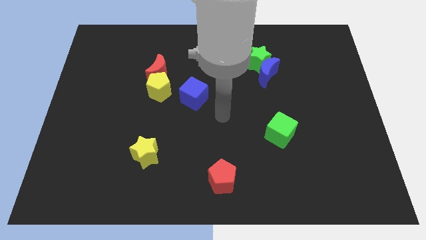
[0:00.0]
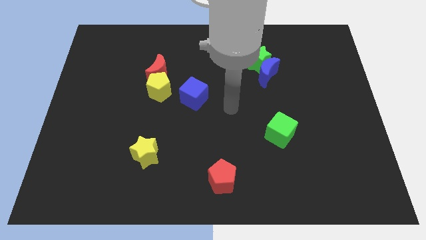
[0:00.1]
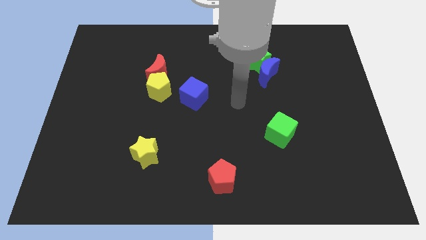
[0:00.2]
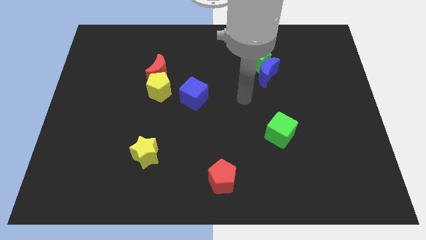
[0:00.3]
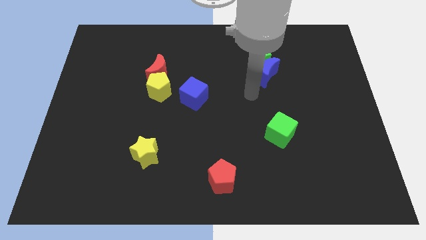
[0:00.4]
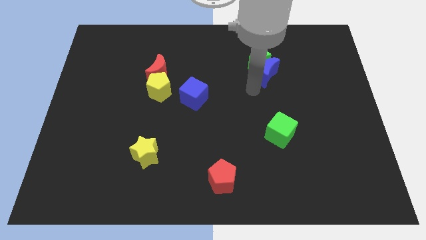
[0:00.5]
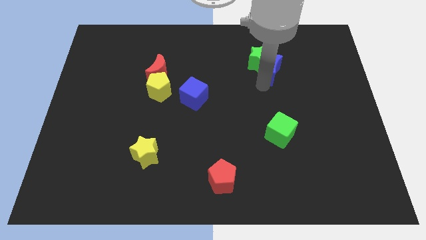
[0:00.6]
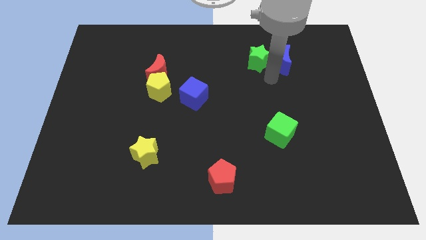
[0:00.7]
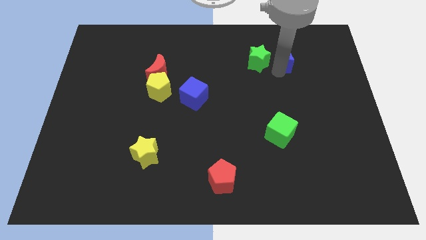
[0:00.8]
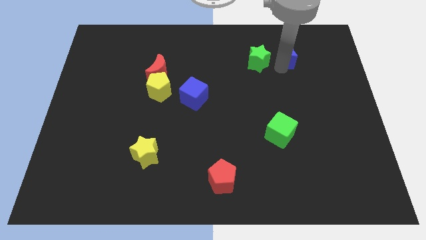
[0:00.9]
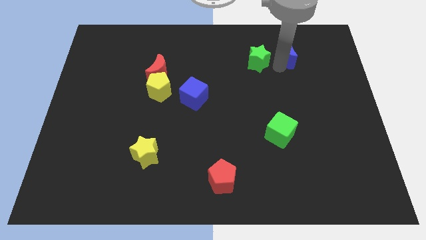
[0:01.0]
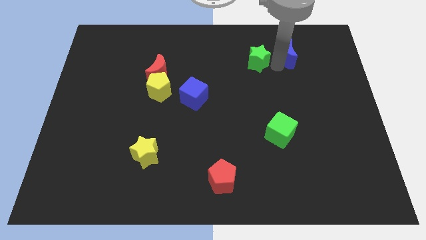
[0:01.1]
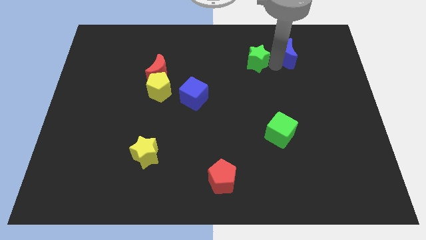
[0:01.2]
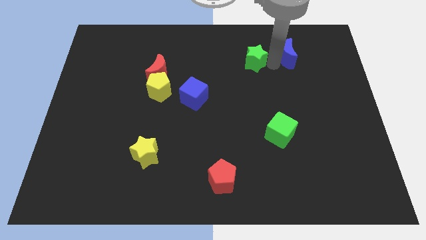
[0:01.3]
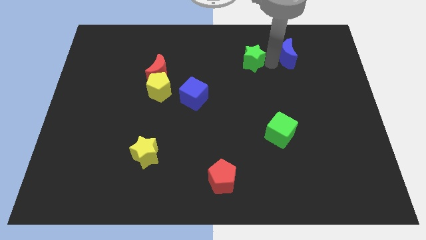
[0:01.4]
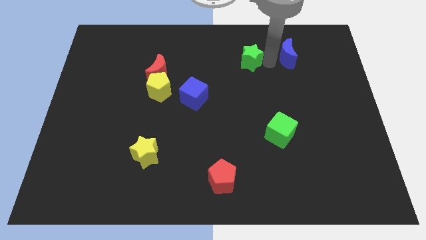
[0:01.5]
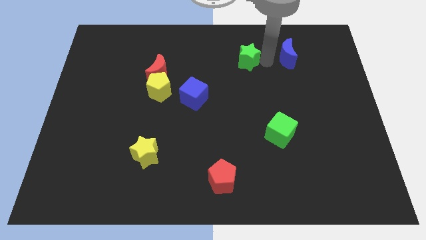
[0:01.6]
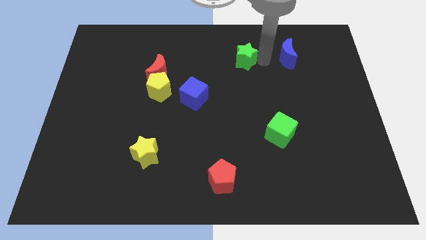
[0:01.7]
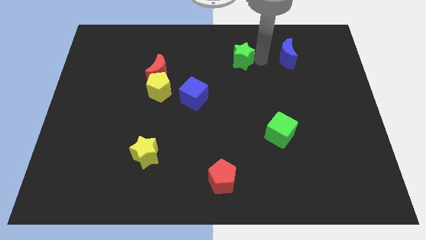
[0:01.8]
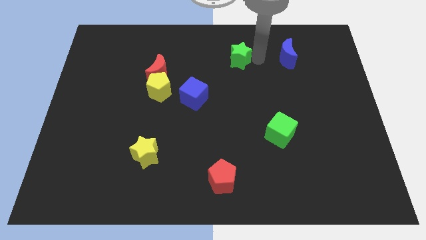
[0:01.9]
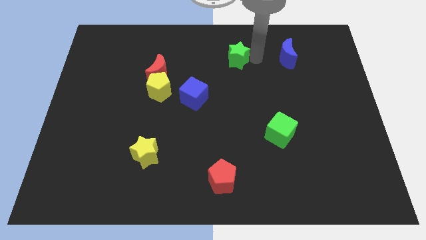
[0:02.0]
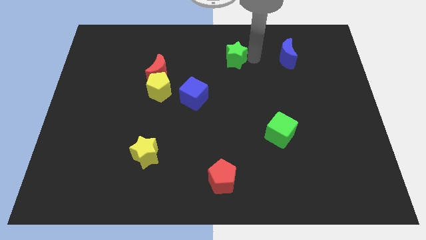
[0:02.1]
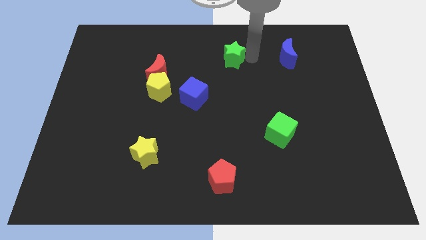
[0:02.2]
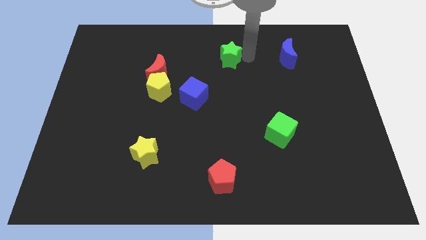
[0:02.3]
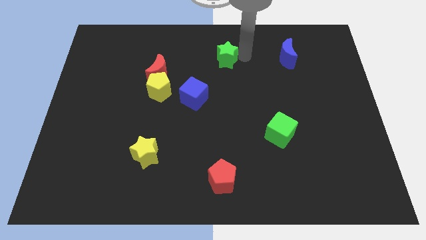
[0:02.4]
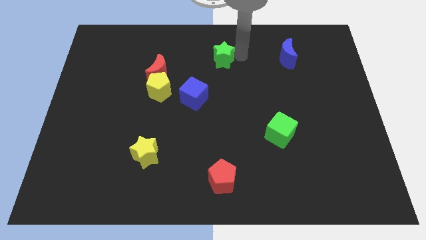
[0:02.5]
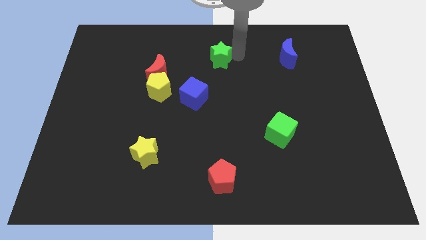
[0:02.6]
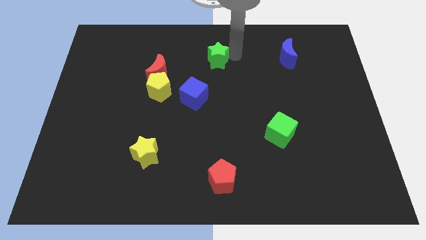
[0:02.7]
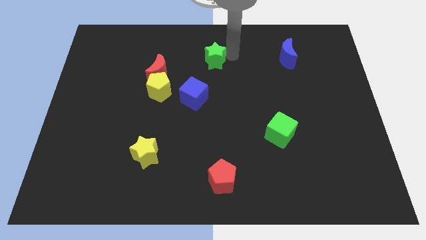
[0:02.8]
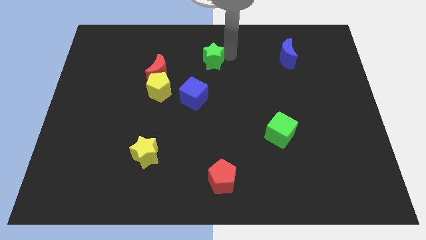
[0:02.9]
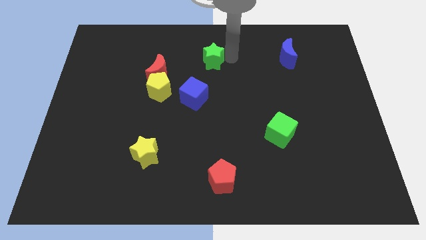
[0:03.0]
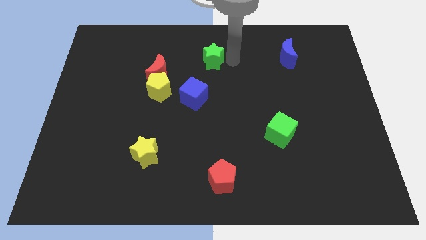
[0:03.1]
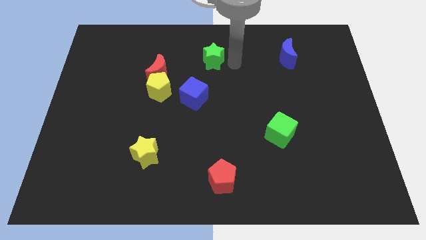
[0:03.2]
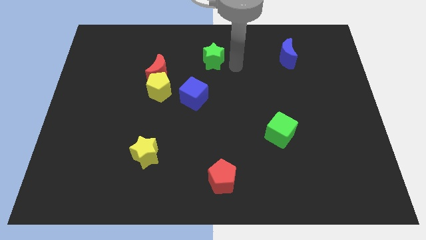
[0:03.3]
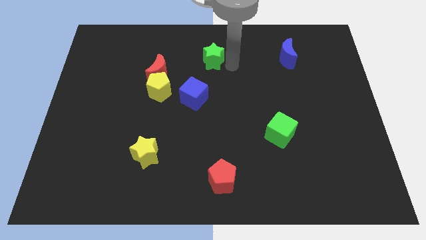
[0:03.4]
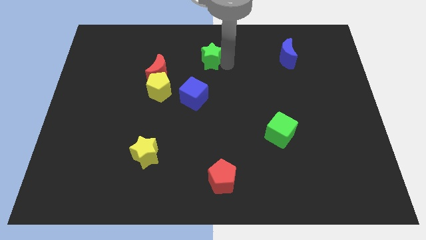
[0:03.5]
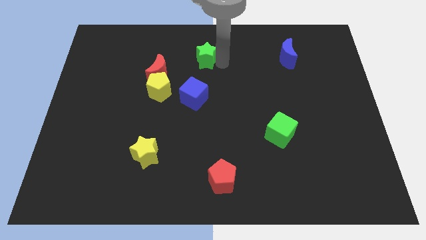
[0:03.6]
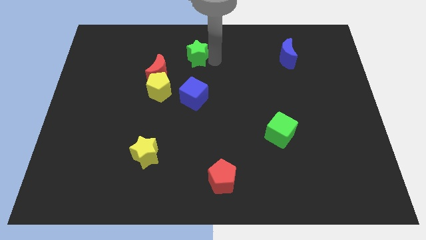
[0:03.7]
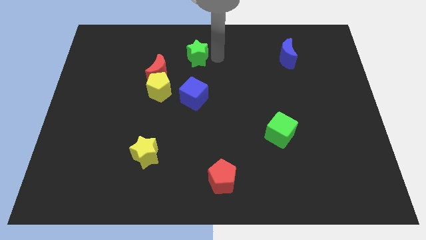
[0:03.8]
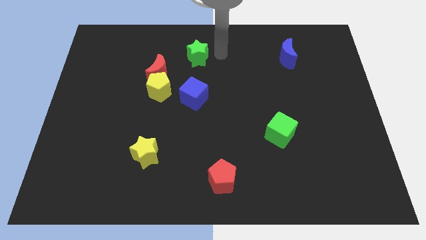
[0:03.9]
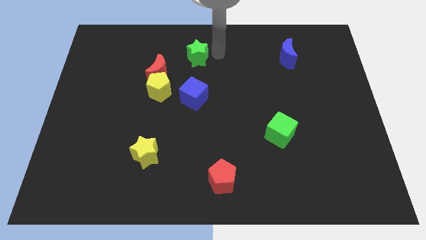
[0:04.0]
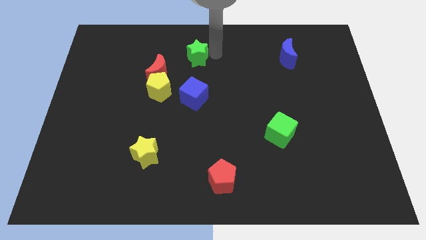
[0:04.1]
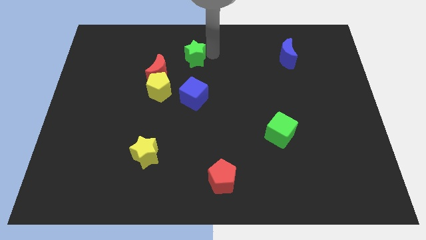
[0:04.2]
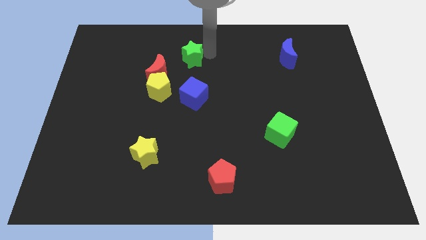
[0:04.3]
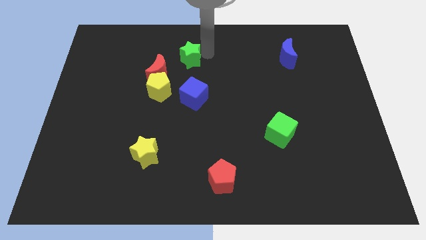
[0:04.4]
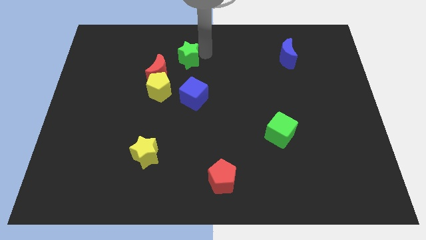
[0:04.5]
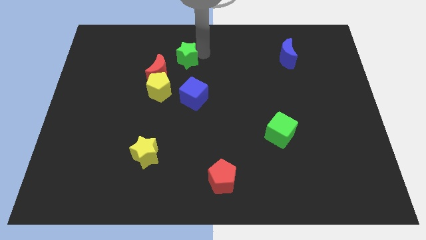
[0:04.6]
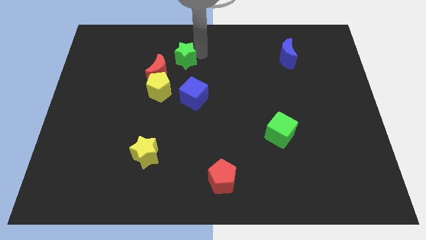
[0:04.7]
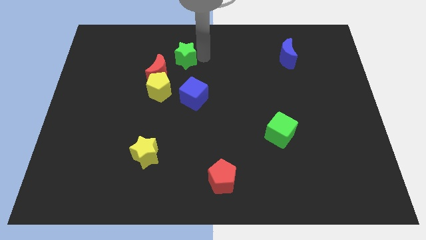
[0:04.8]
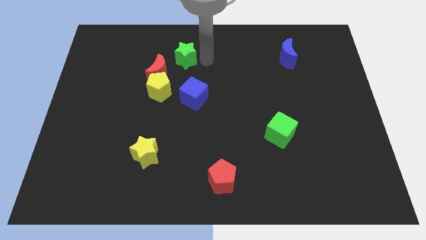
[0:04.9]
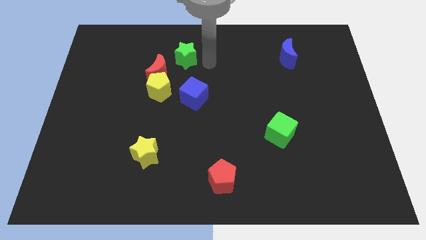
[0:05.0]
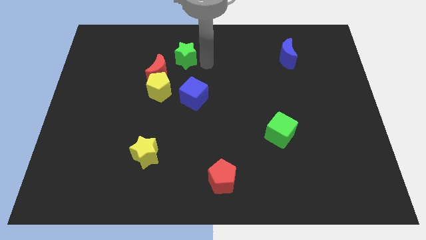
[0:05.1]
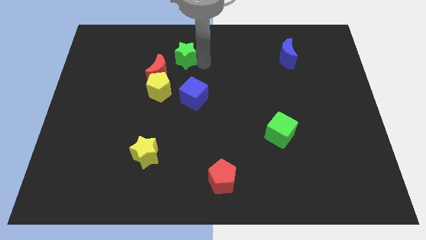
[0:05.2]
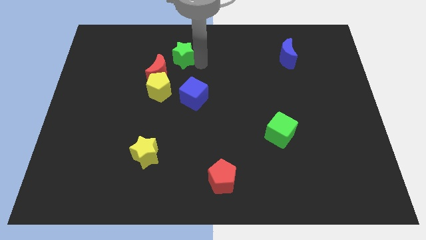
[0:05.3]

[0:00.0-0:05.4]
move the green star left

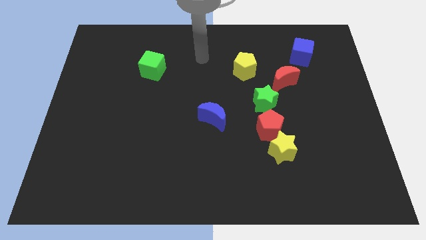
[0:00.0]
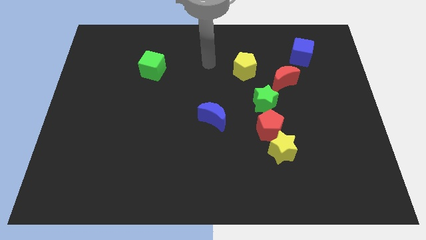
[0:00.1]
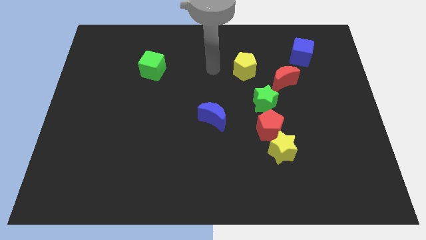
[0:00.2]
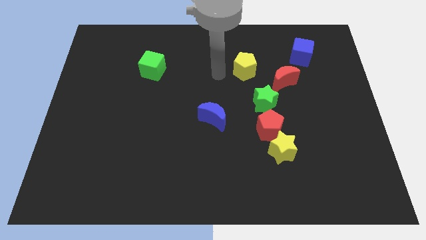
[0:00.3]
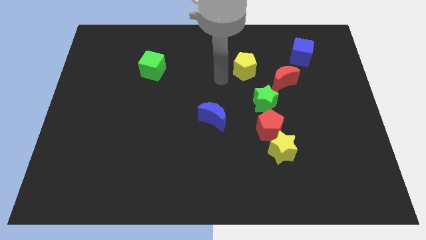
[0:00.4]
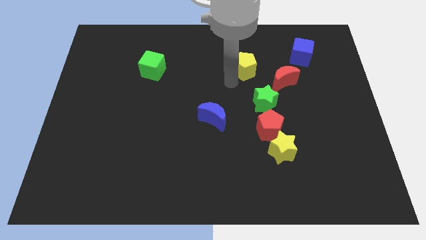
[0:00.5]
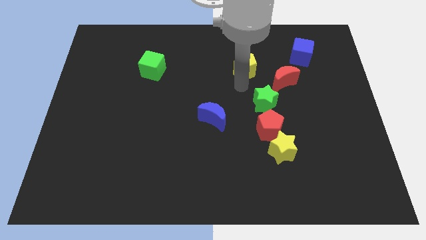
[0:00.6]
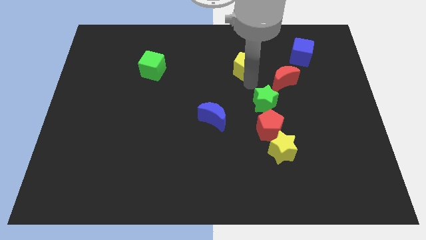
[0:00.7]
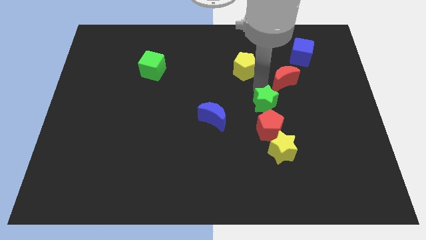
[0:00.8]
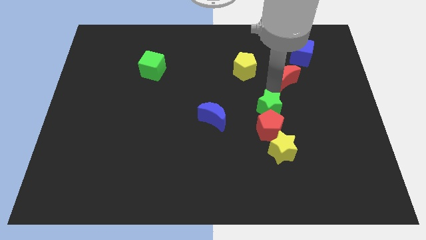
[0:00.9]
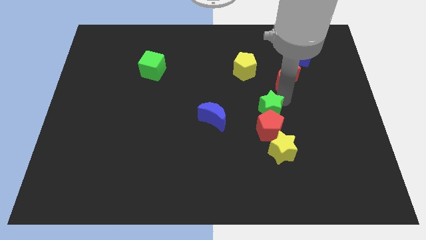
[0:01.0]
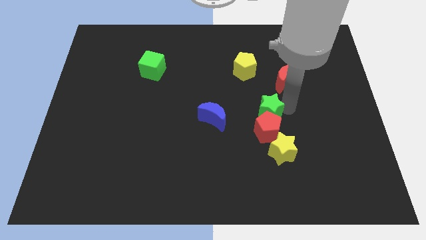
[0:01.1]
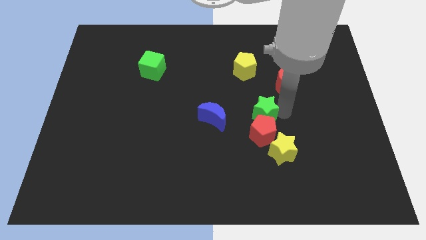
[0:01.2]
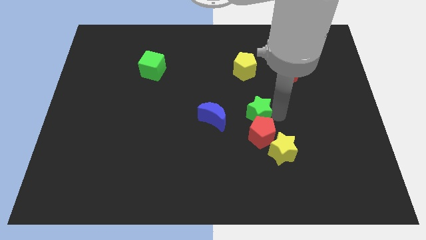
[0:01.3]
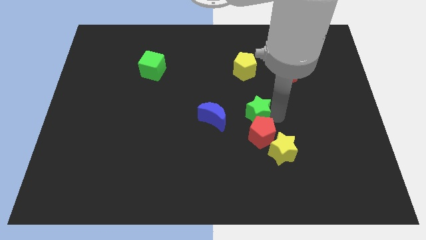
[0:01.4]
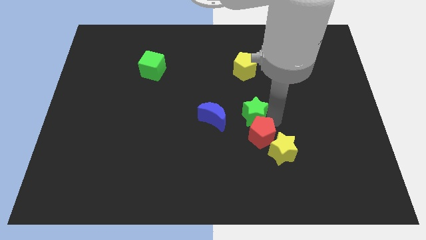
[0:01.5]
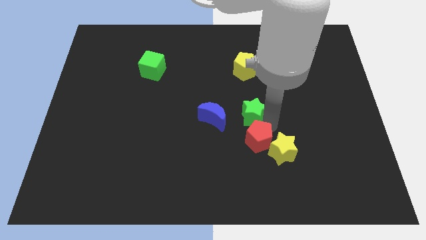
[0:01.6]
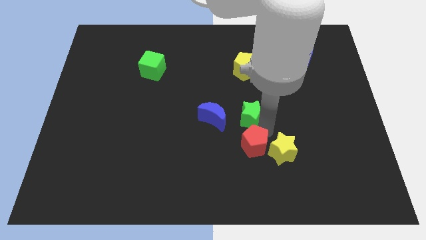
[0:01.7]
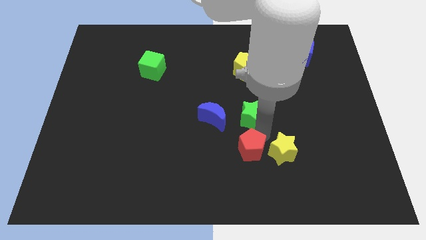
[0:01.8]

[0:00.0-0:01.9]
slide the red pentagon downwards and to the left diagonally a bit

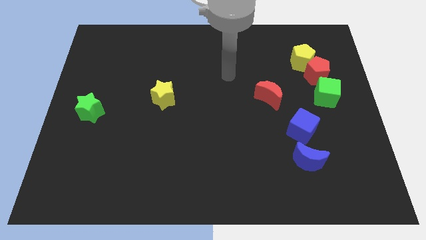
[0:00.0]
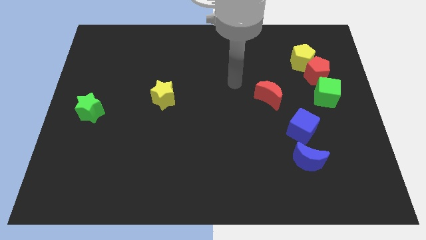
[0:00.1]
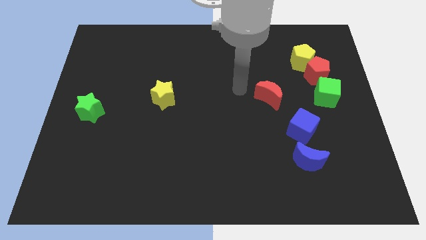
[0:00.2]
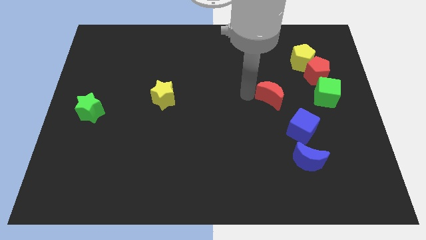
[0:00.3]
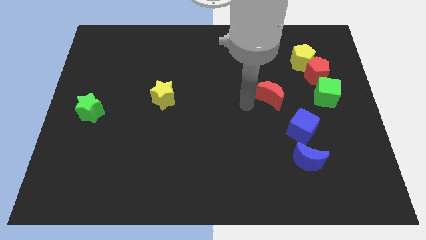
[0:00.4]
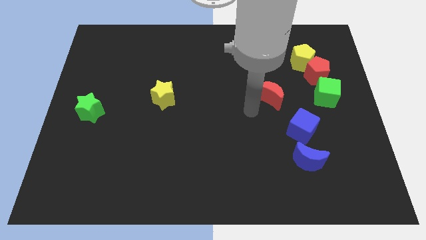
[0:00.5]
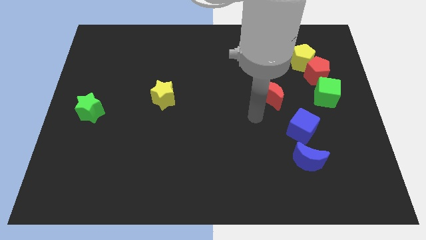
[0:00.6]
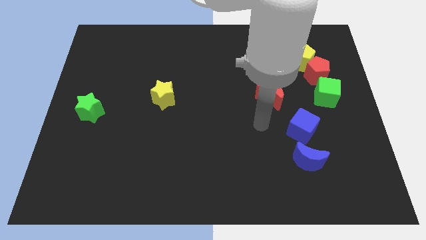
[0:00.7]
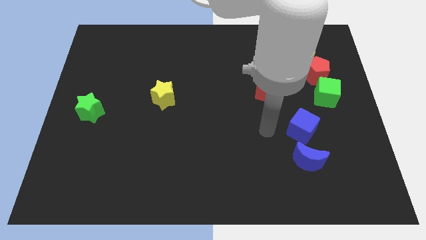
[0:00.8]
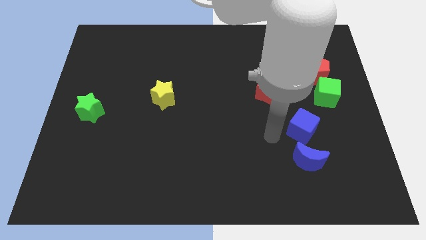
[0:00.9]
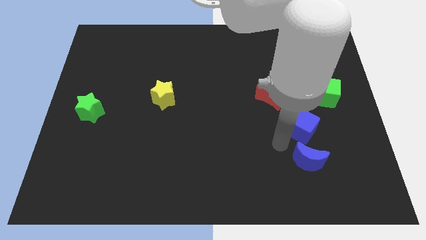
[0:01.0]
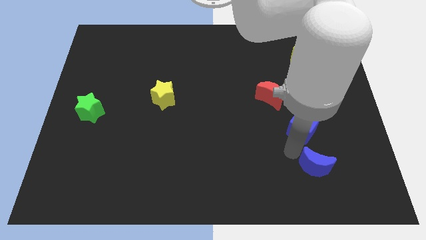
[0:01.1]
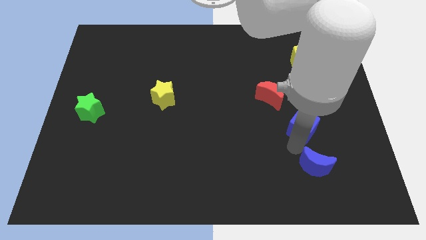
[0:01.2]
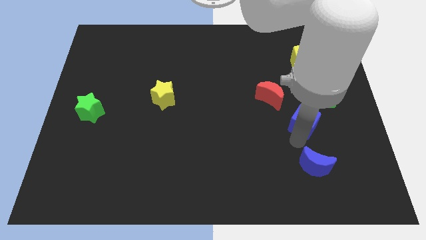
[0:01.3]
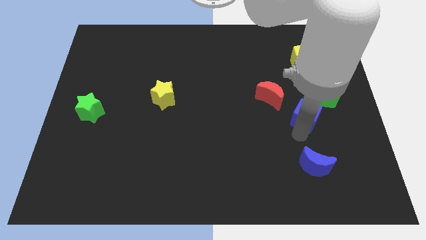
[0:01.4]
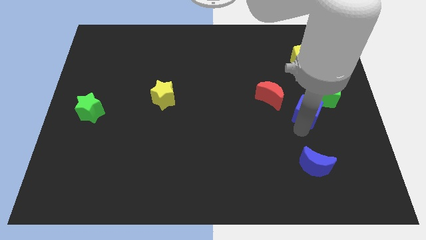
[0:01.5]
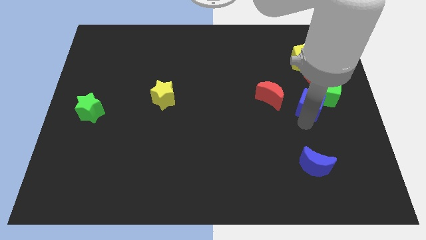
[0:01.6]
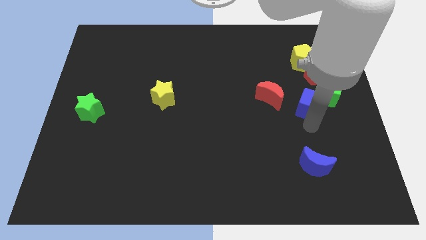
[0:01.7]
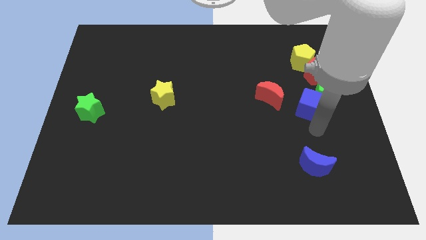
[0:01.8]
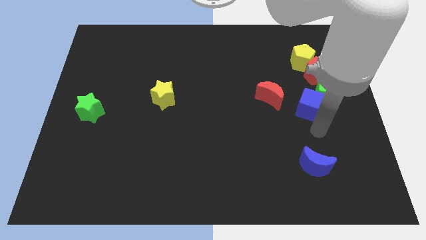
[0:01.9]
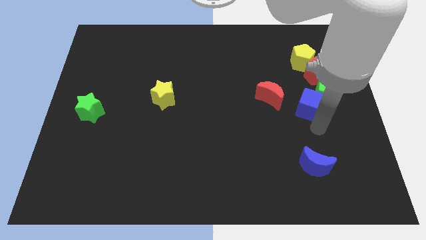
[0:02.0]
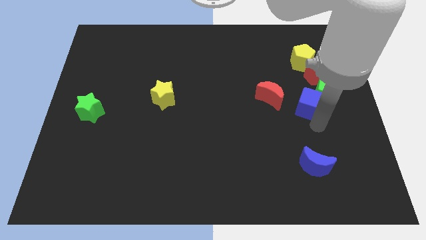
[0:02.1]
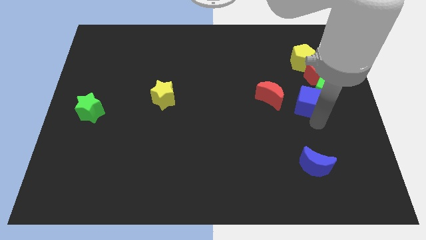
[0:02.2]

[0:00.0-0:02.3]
push the blue cube somewhat up
